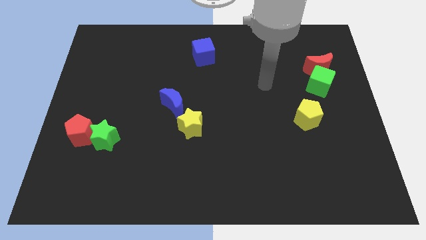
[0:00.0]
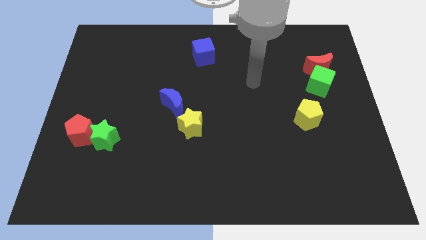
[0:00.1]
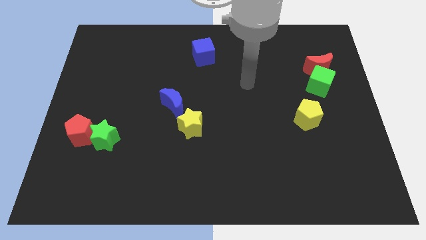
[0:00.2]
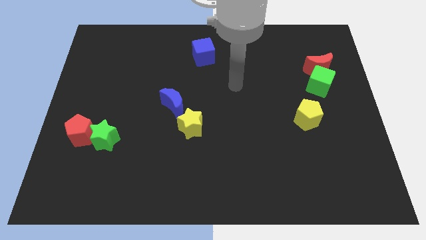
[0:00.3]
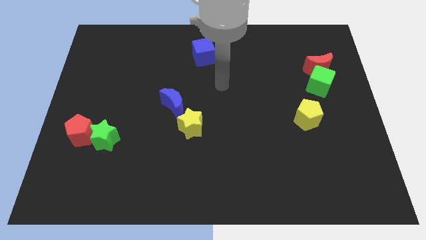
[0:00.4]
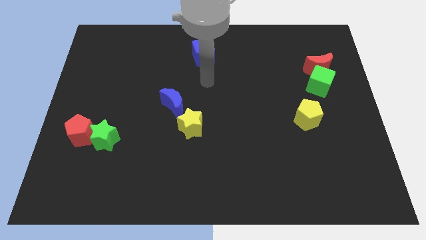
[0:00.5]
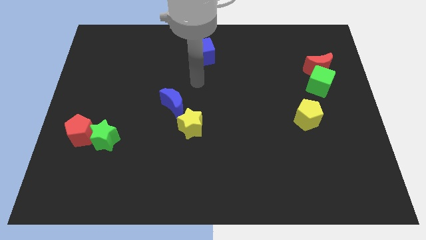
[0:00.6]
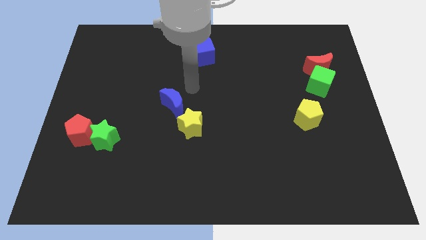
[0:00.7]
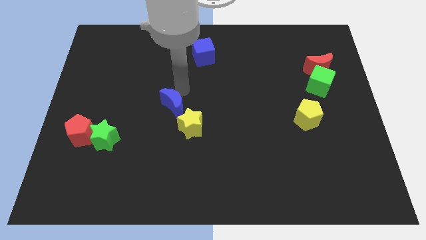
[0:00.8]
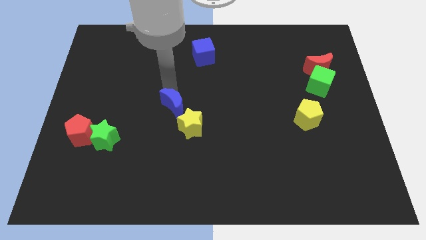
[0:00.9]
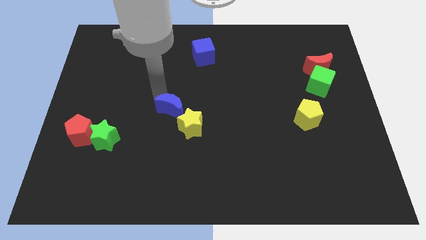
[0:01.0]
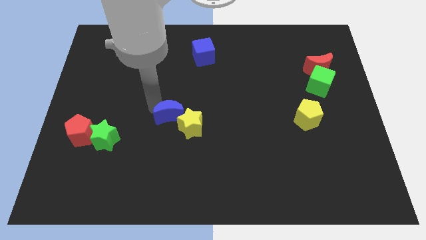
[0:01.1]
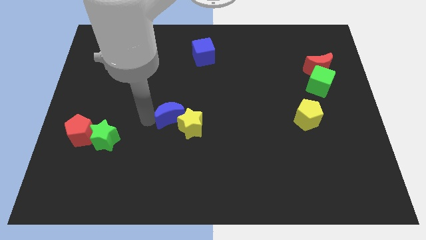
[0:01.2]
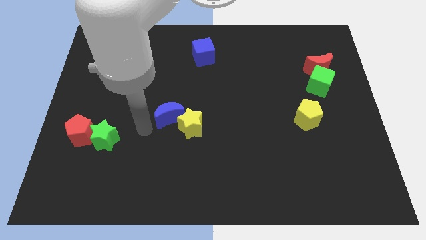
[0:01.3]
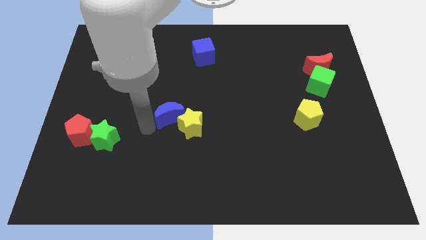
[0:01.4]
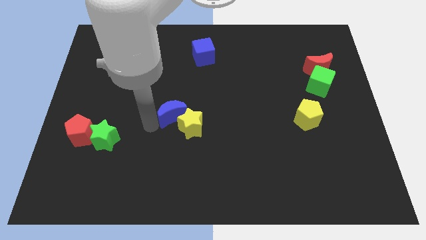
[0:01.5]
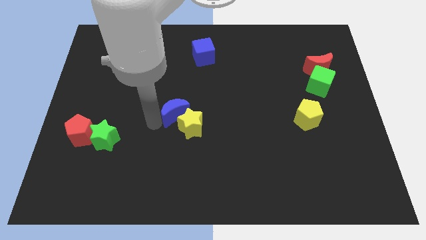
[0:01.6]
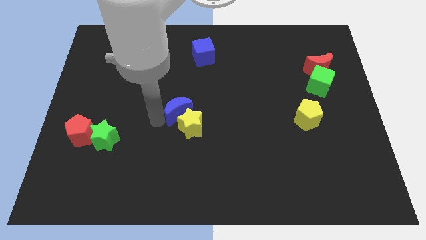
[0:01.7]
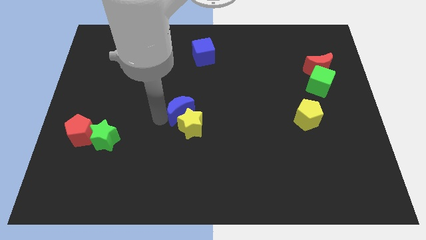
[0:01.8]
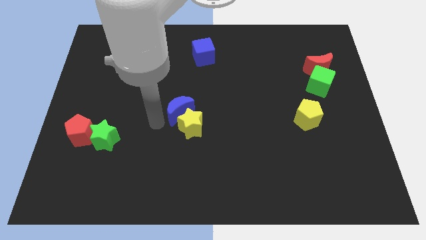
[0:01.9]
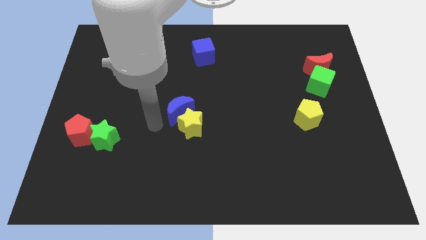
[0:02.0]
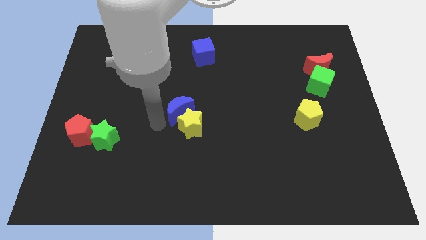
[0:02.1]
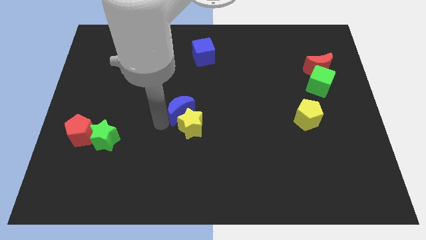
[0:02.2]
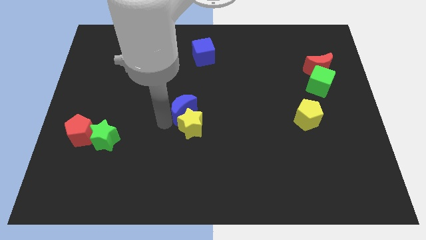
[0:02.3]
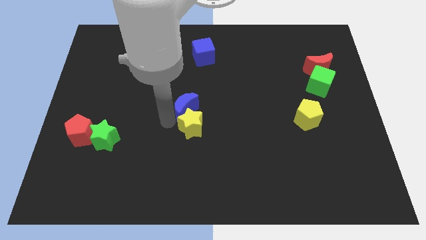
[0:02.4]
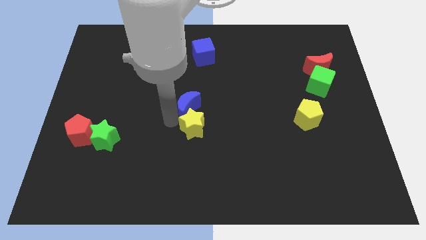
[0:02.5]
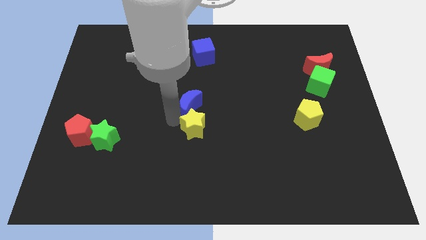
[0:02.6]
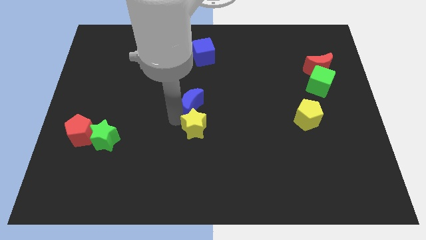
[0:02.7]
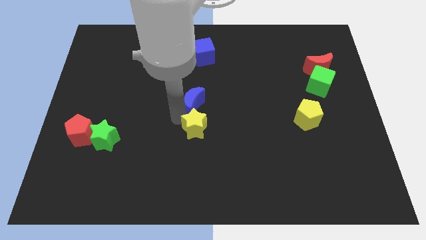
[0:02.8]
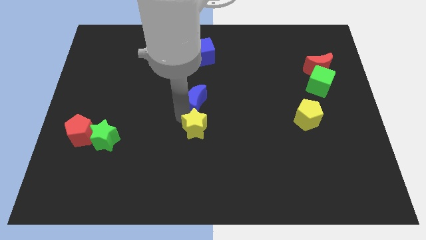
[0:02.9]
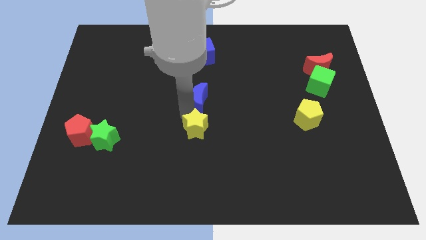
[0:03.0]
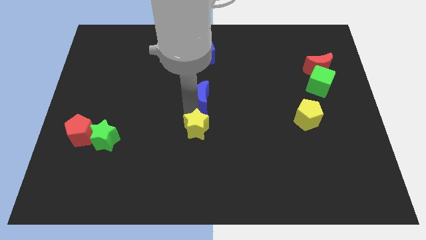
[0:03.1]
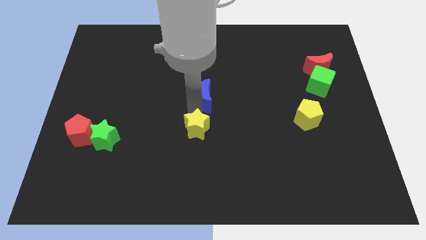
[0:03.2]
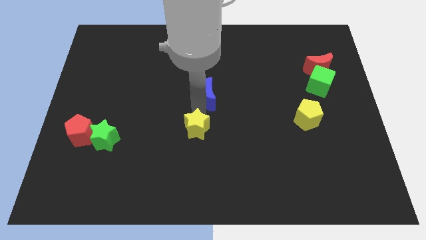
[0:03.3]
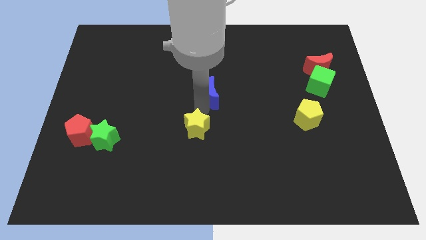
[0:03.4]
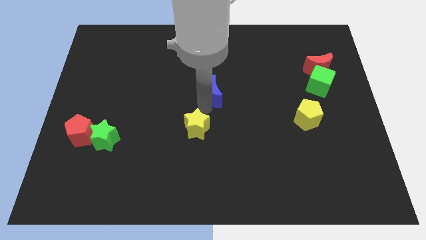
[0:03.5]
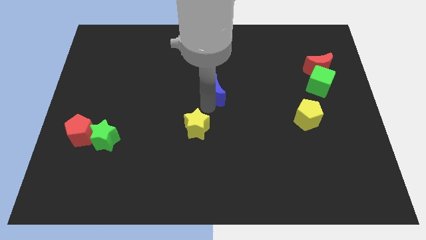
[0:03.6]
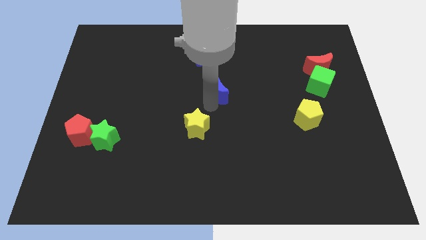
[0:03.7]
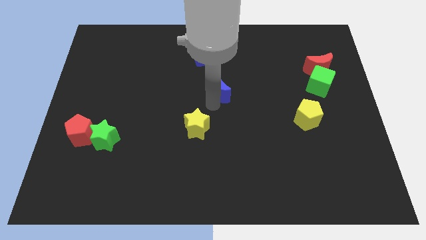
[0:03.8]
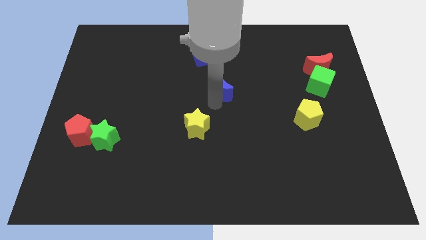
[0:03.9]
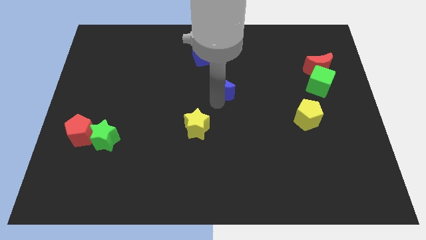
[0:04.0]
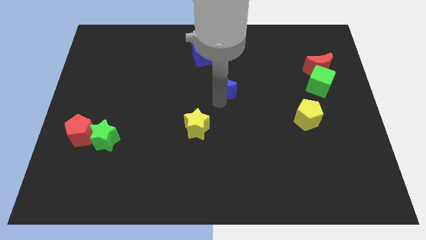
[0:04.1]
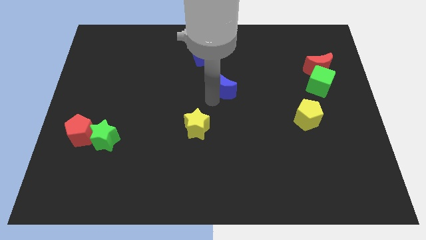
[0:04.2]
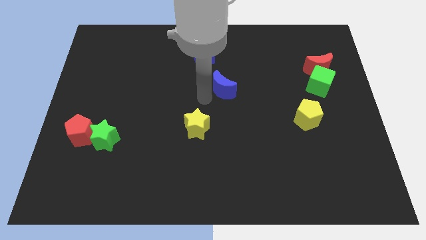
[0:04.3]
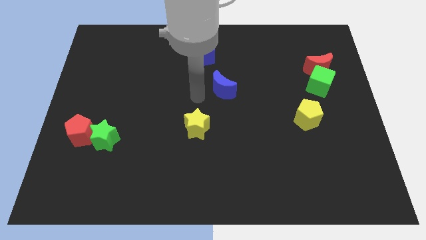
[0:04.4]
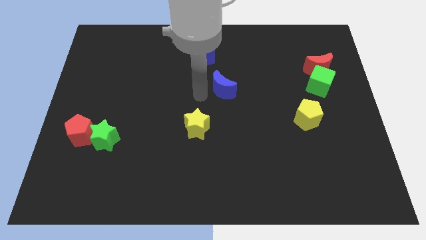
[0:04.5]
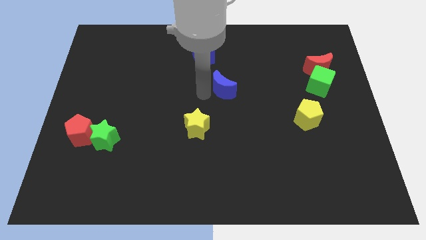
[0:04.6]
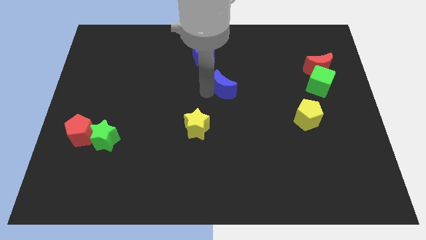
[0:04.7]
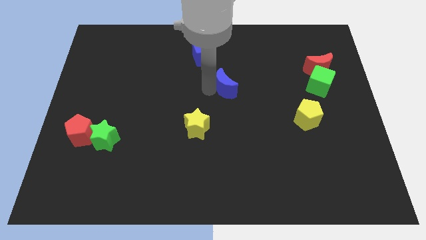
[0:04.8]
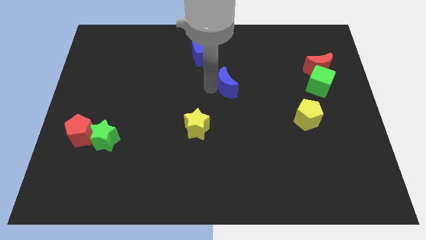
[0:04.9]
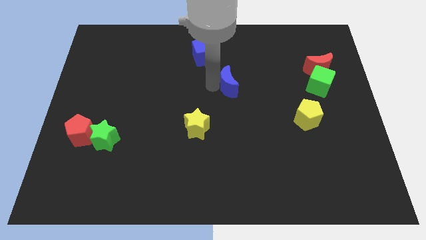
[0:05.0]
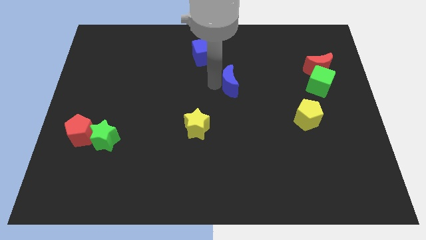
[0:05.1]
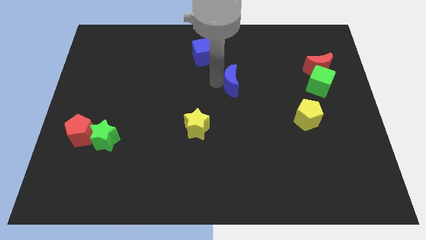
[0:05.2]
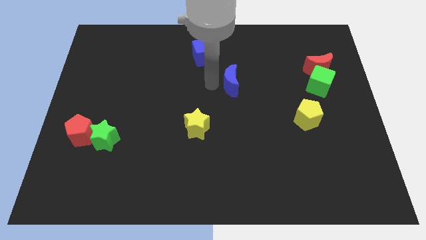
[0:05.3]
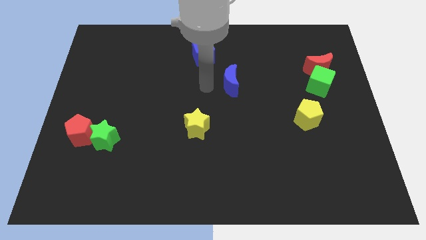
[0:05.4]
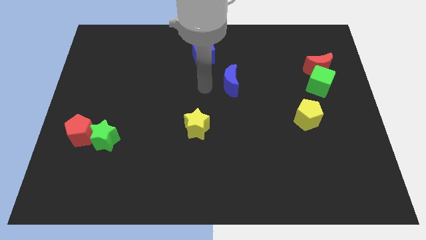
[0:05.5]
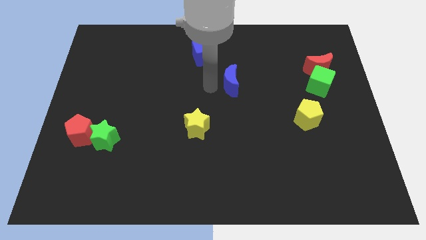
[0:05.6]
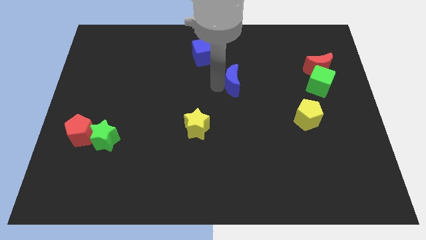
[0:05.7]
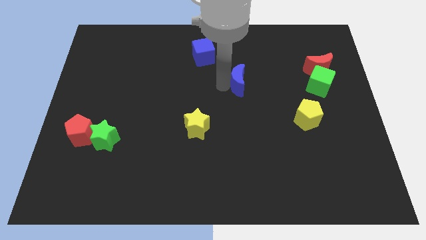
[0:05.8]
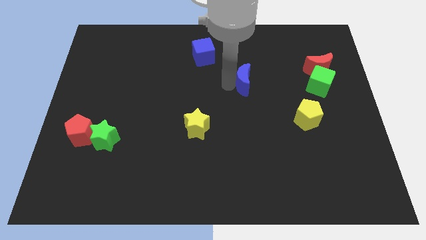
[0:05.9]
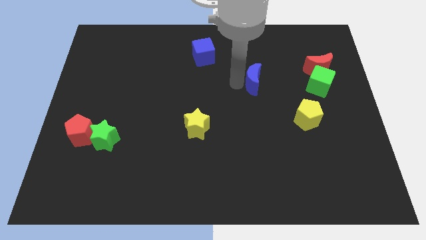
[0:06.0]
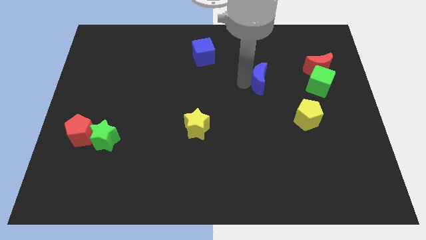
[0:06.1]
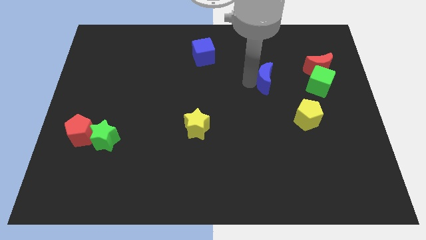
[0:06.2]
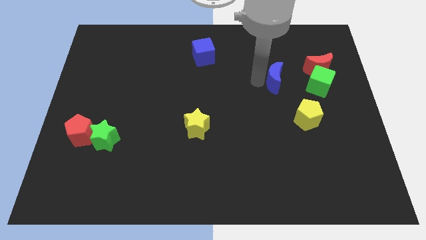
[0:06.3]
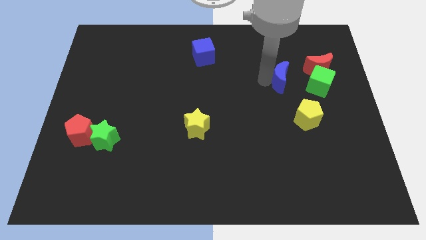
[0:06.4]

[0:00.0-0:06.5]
move the blue moon diagonally down and to the left of the red moon
